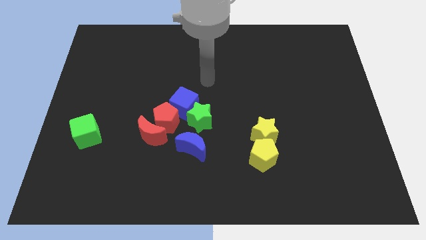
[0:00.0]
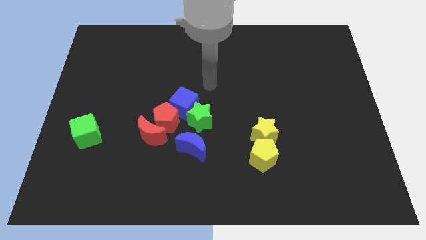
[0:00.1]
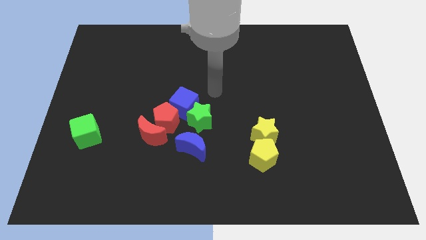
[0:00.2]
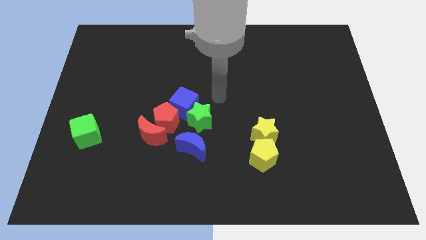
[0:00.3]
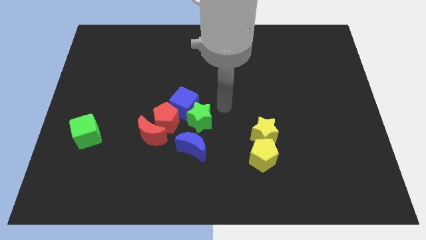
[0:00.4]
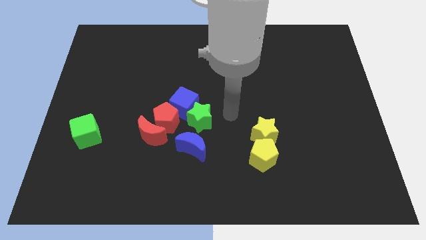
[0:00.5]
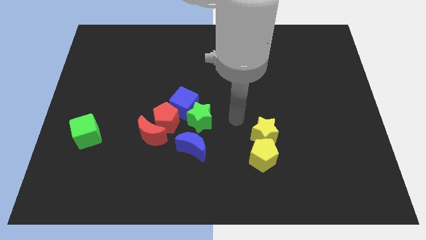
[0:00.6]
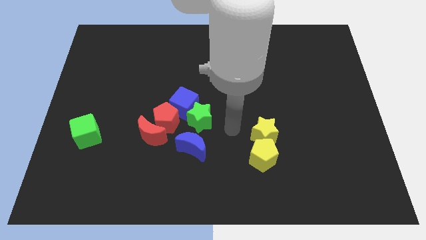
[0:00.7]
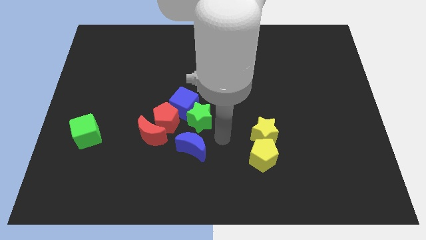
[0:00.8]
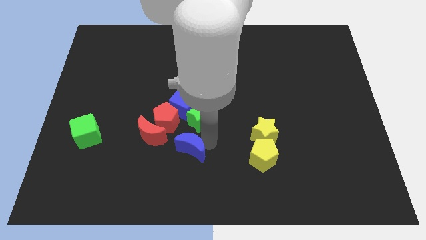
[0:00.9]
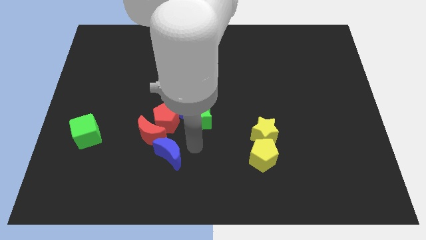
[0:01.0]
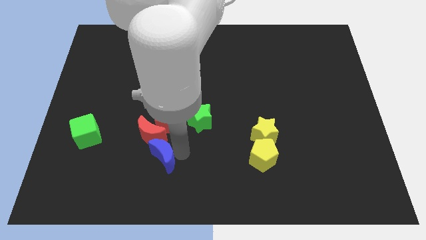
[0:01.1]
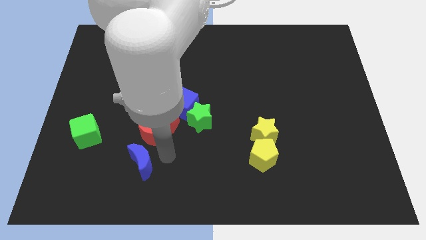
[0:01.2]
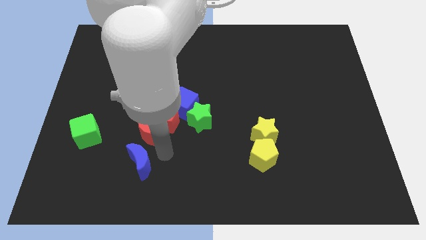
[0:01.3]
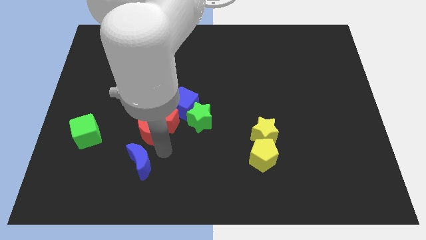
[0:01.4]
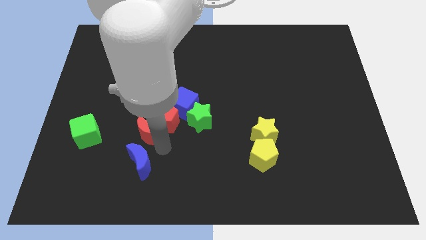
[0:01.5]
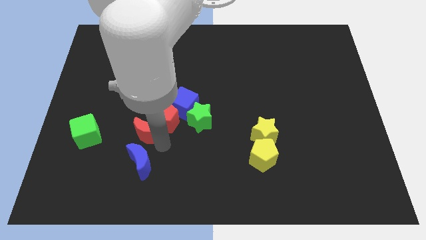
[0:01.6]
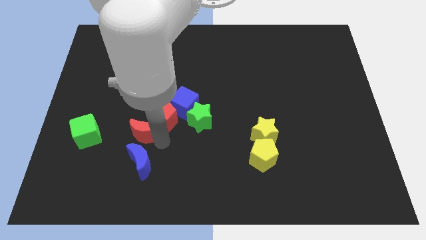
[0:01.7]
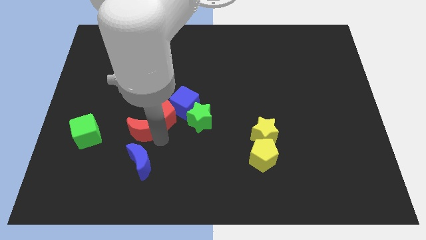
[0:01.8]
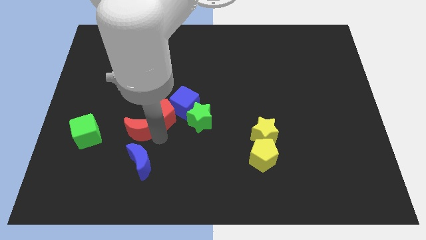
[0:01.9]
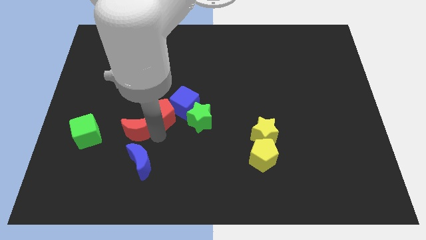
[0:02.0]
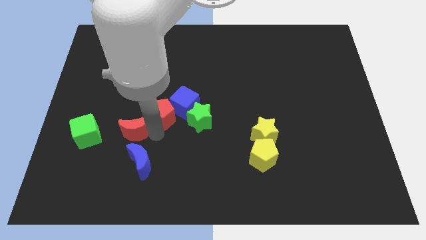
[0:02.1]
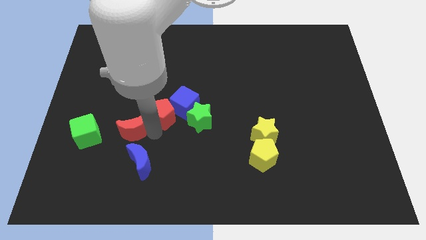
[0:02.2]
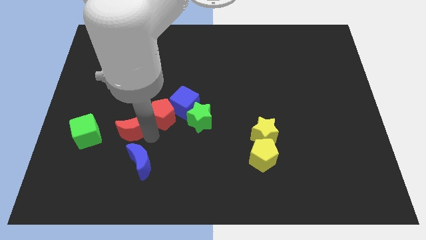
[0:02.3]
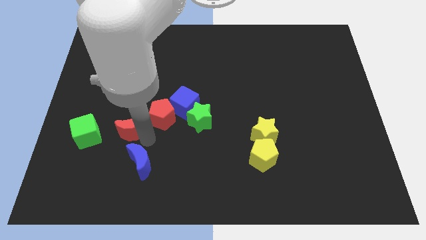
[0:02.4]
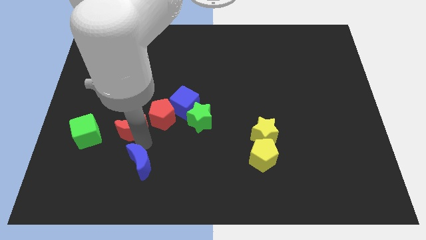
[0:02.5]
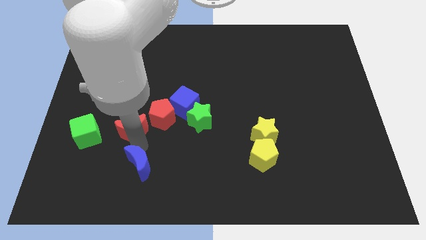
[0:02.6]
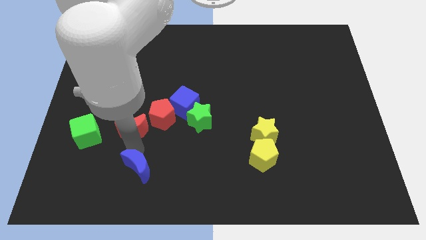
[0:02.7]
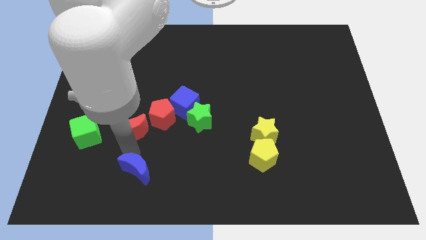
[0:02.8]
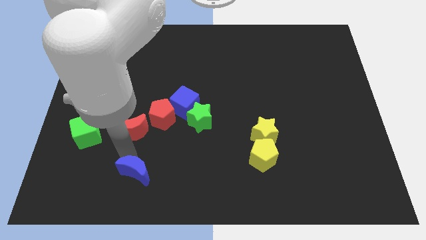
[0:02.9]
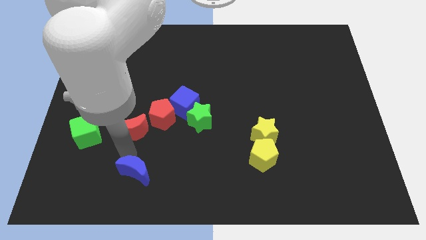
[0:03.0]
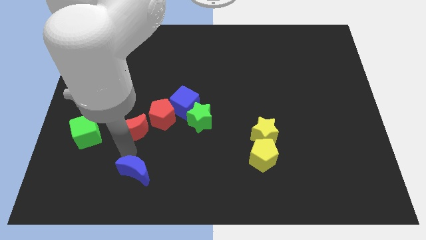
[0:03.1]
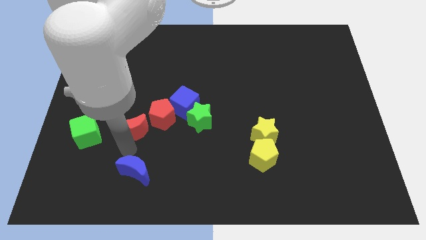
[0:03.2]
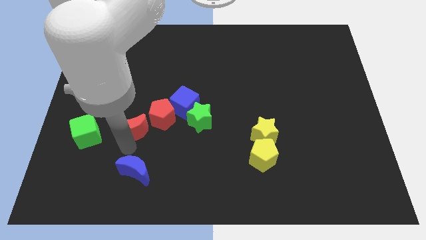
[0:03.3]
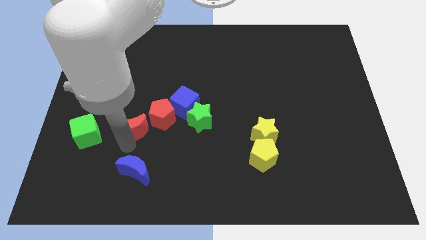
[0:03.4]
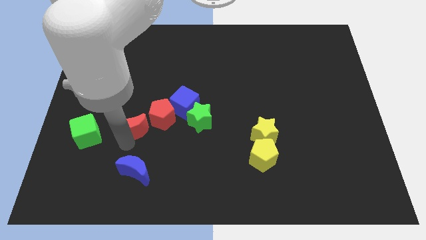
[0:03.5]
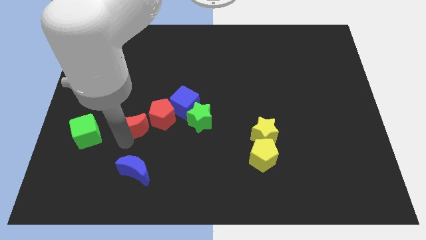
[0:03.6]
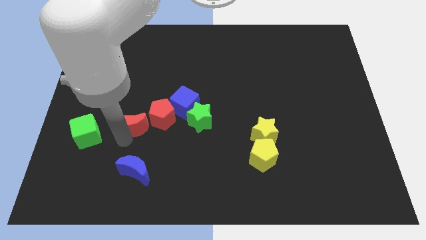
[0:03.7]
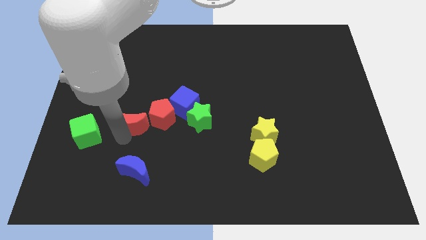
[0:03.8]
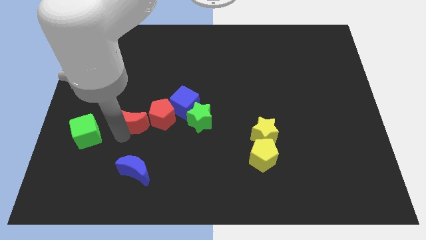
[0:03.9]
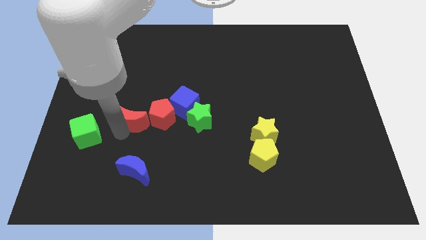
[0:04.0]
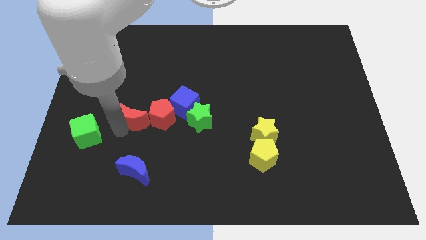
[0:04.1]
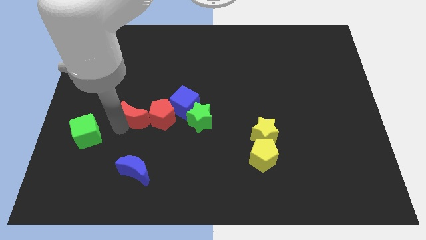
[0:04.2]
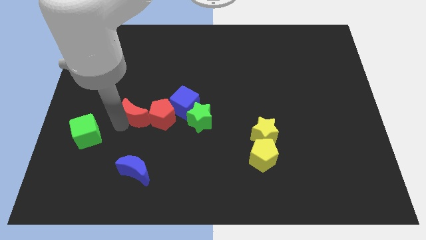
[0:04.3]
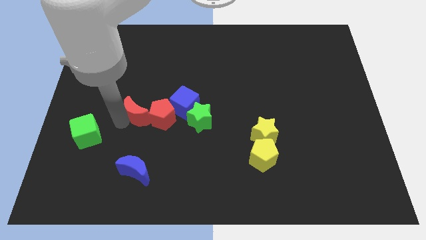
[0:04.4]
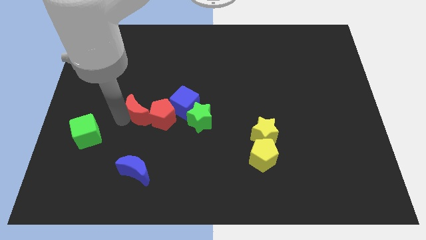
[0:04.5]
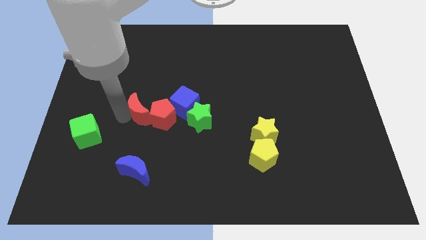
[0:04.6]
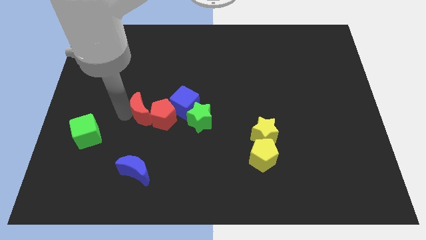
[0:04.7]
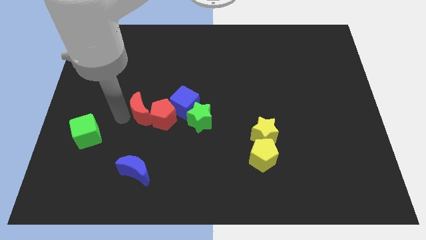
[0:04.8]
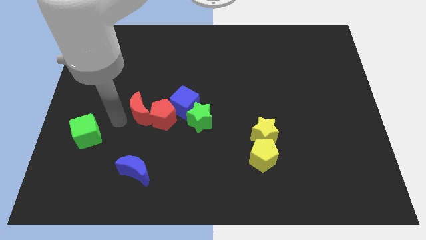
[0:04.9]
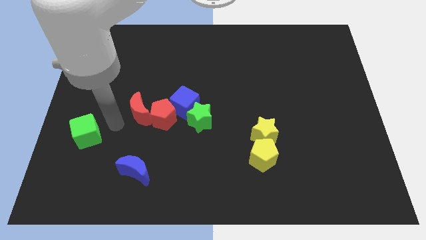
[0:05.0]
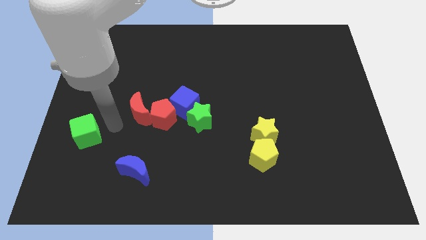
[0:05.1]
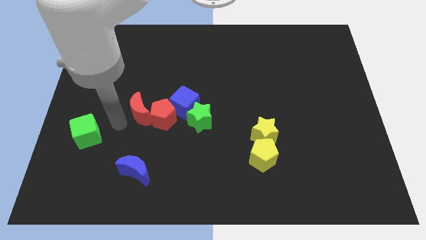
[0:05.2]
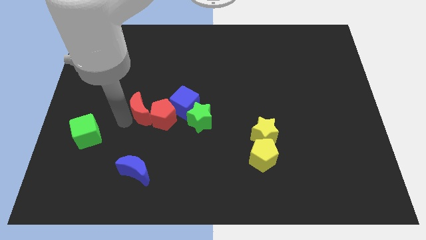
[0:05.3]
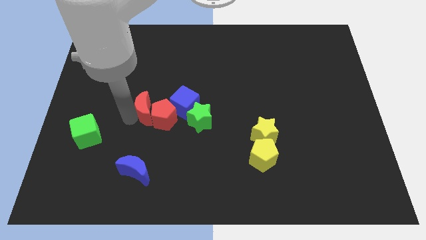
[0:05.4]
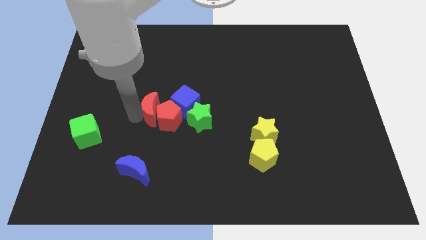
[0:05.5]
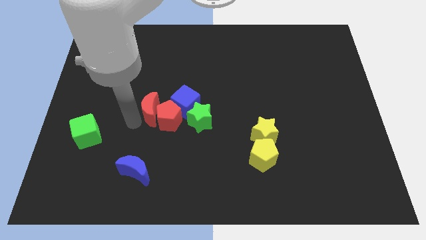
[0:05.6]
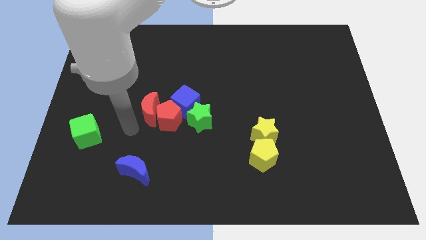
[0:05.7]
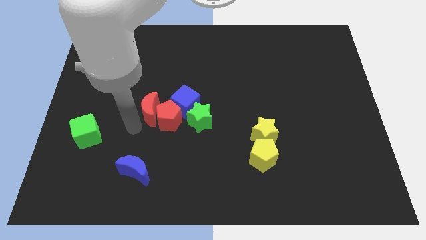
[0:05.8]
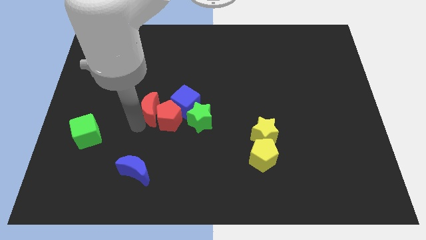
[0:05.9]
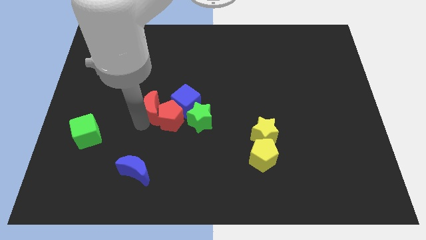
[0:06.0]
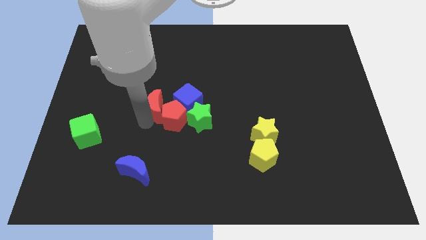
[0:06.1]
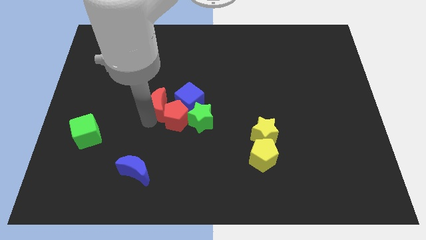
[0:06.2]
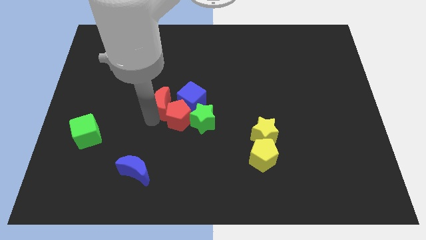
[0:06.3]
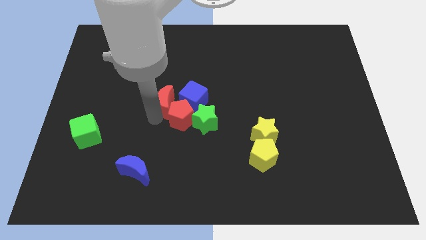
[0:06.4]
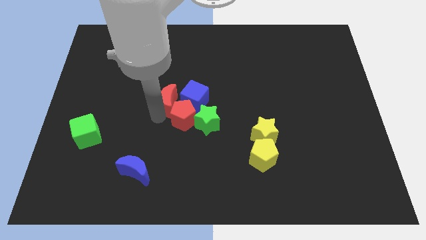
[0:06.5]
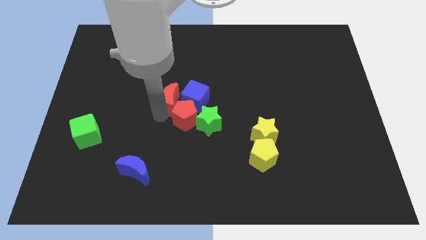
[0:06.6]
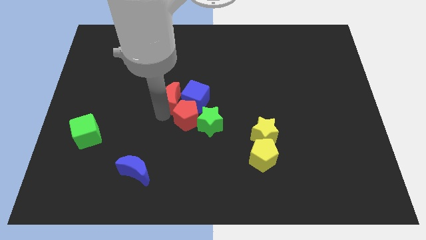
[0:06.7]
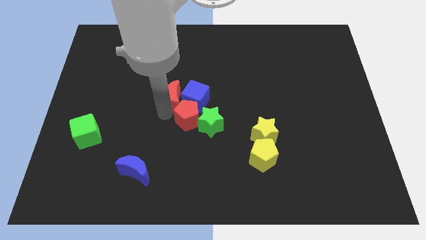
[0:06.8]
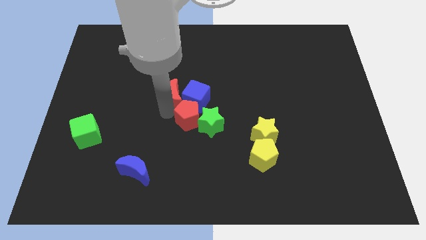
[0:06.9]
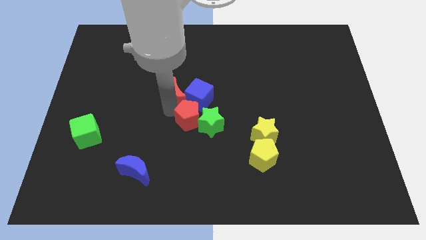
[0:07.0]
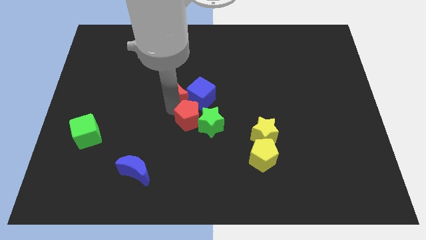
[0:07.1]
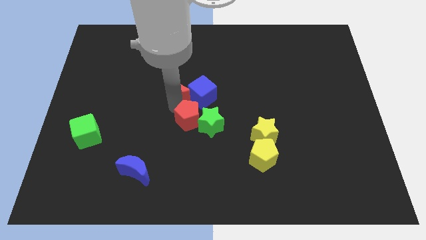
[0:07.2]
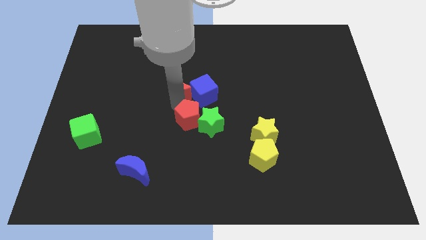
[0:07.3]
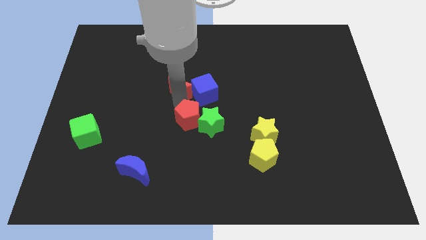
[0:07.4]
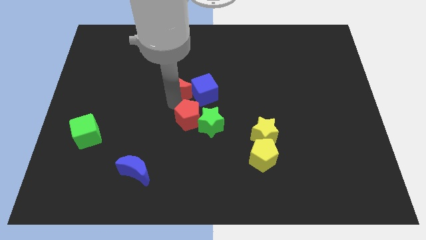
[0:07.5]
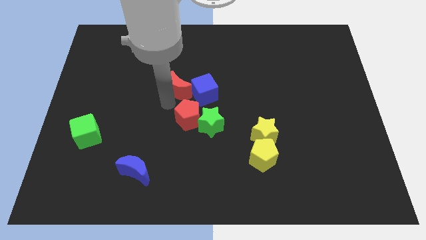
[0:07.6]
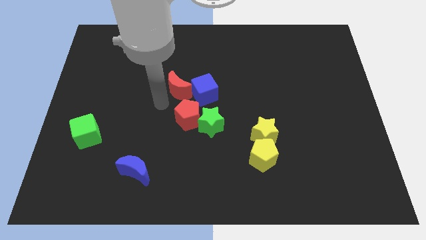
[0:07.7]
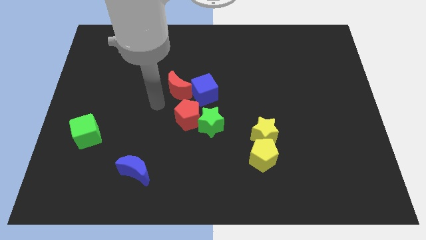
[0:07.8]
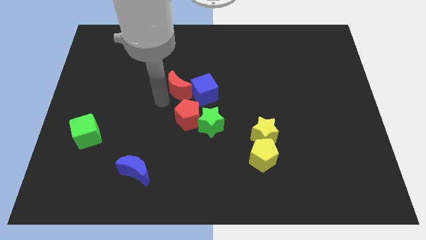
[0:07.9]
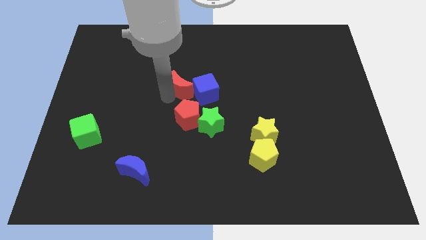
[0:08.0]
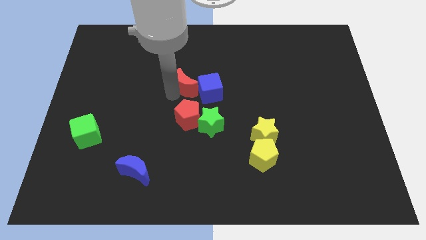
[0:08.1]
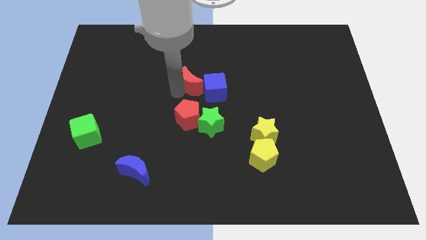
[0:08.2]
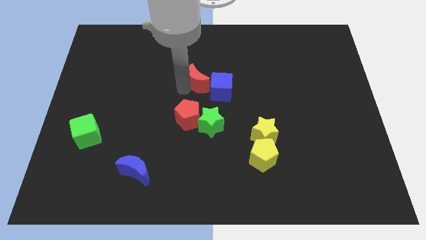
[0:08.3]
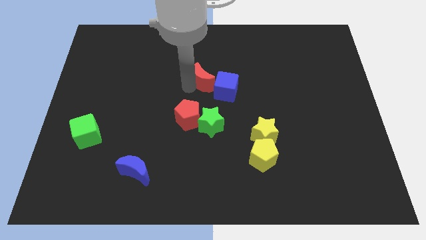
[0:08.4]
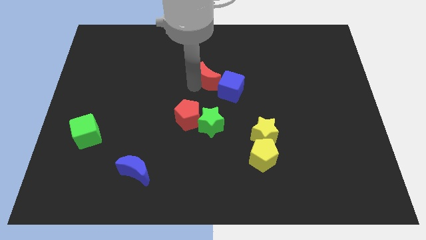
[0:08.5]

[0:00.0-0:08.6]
push the red moon diagonally up and right
